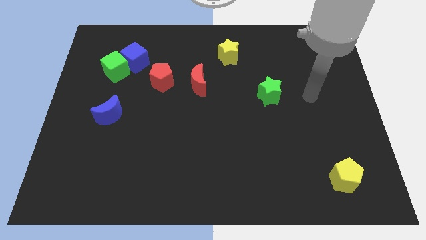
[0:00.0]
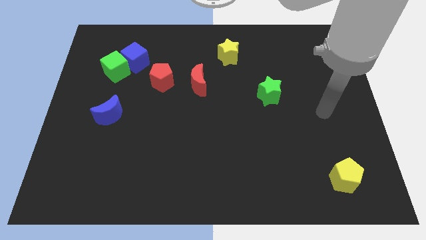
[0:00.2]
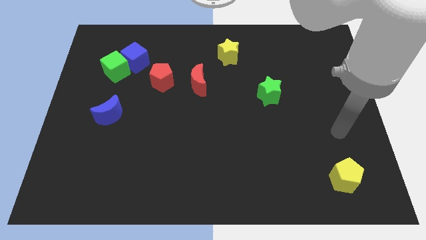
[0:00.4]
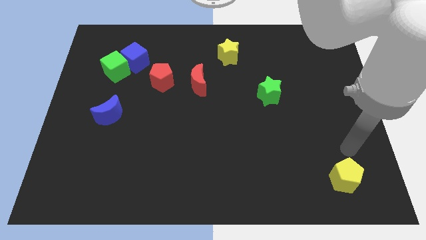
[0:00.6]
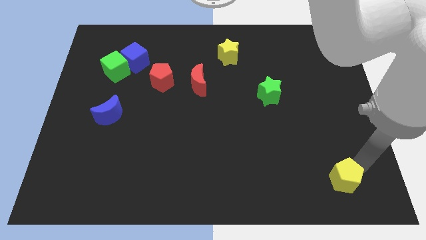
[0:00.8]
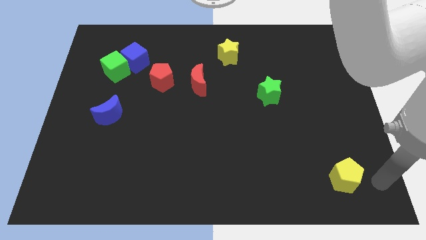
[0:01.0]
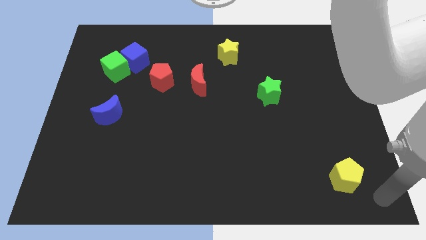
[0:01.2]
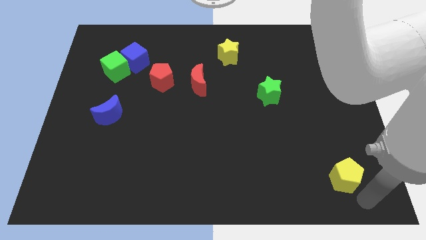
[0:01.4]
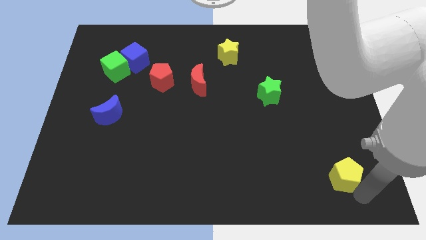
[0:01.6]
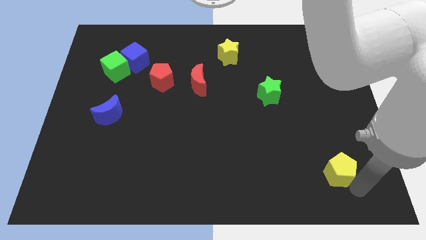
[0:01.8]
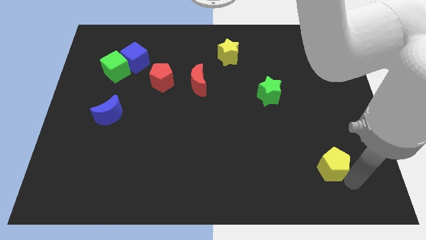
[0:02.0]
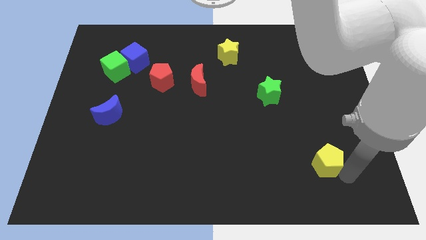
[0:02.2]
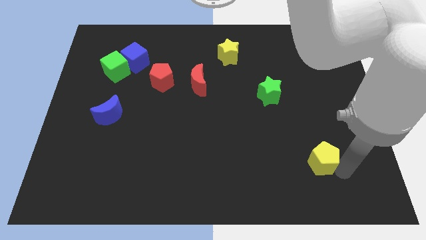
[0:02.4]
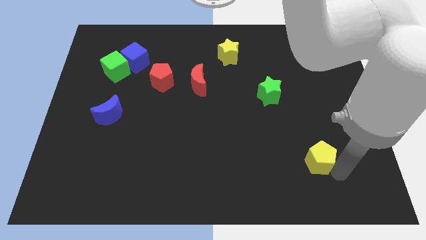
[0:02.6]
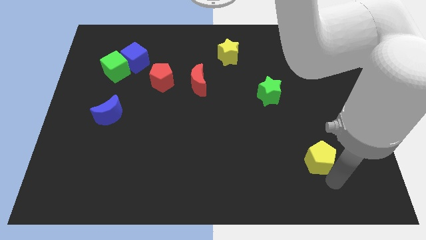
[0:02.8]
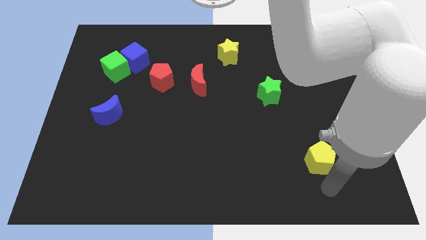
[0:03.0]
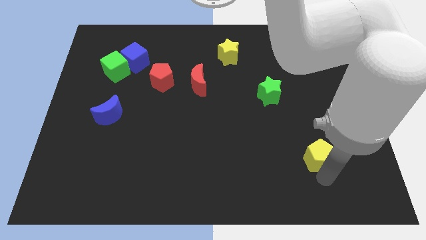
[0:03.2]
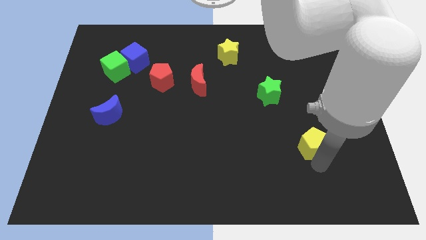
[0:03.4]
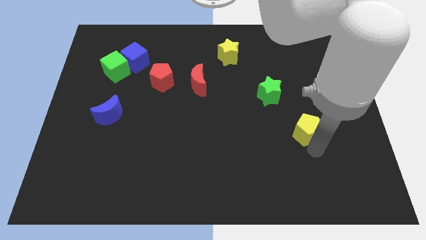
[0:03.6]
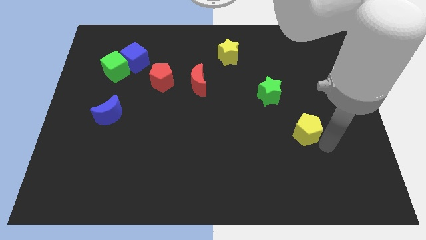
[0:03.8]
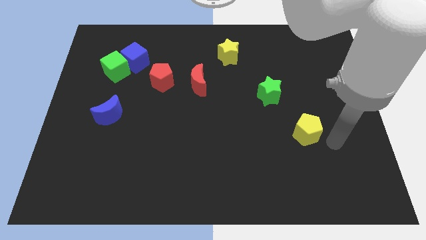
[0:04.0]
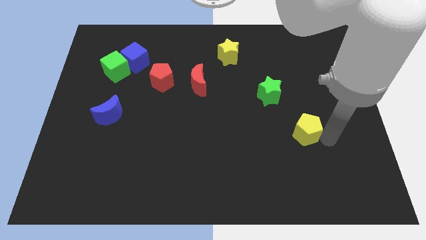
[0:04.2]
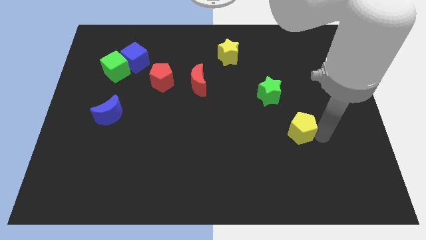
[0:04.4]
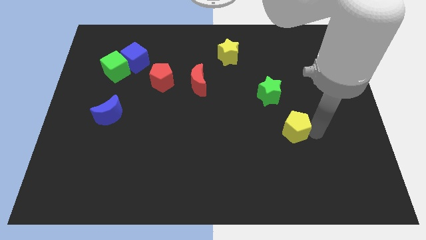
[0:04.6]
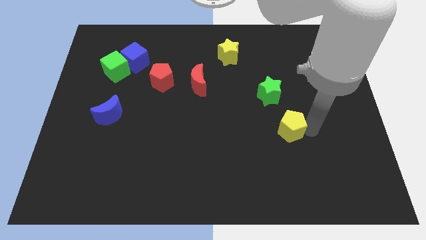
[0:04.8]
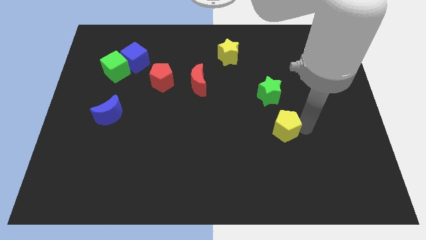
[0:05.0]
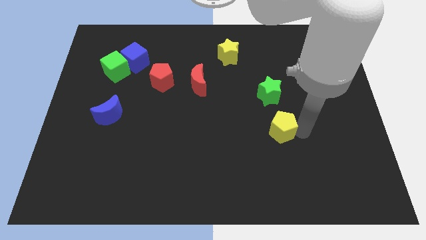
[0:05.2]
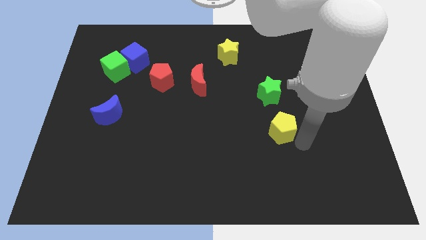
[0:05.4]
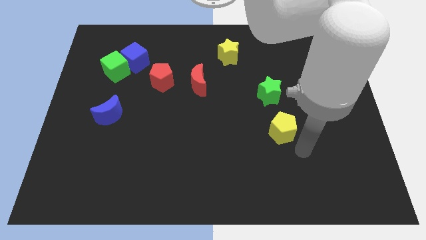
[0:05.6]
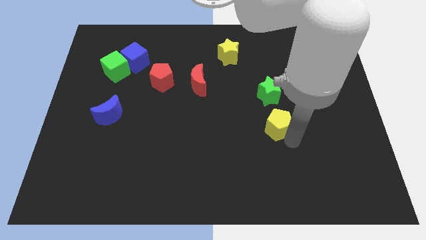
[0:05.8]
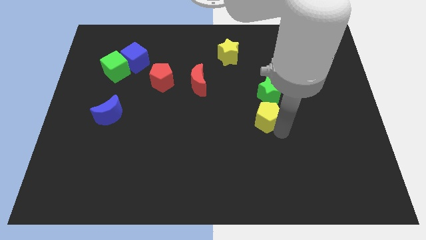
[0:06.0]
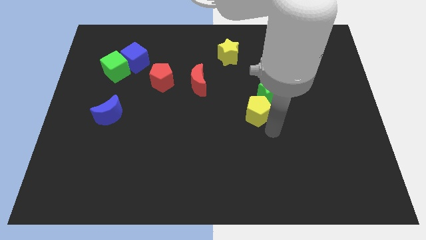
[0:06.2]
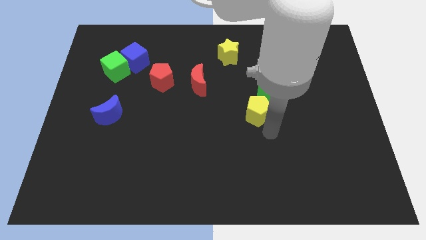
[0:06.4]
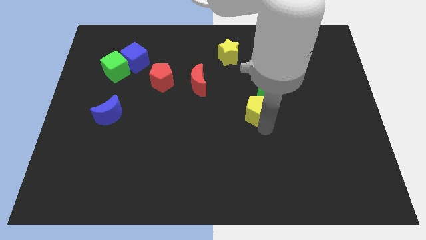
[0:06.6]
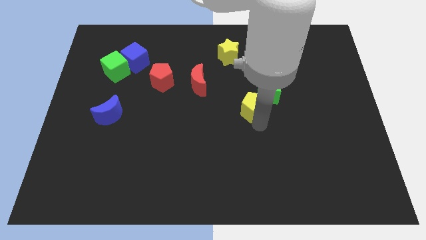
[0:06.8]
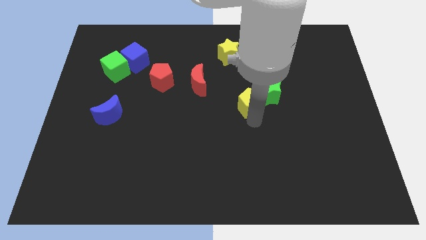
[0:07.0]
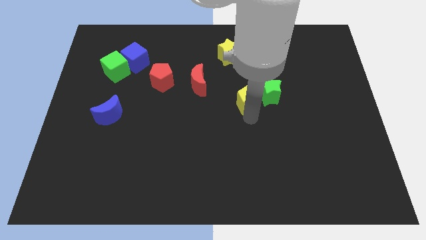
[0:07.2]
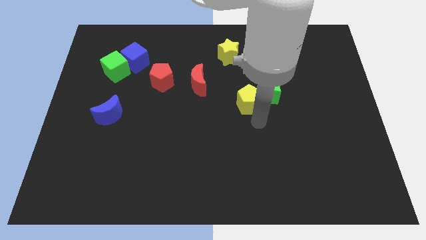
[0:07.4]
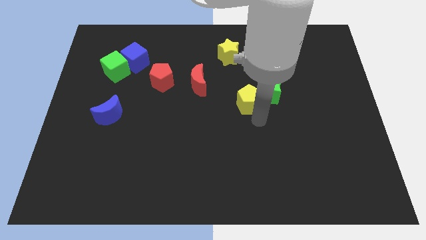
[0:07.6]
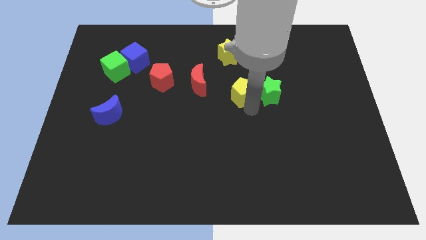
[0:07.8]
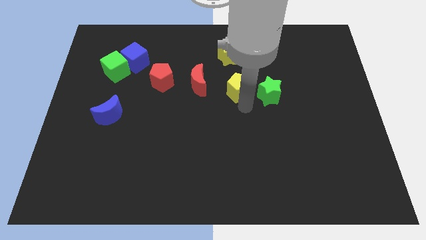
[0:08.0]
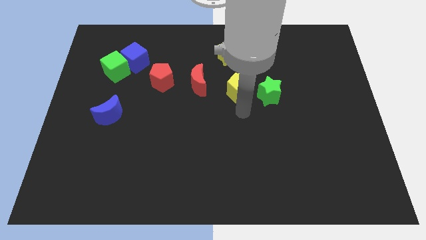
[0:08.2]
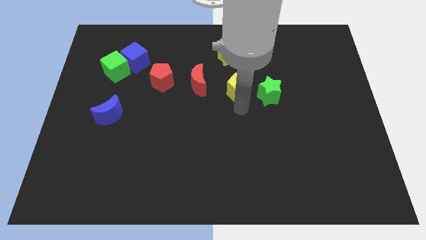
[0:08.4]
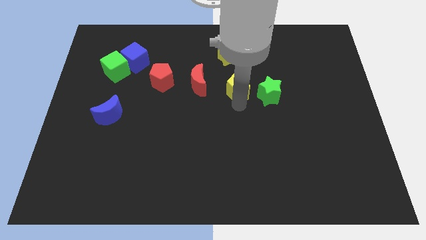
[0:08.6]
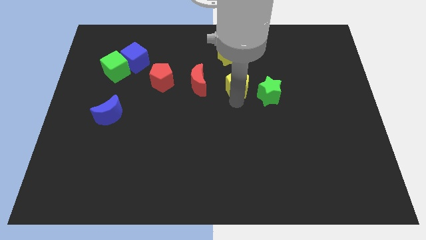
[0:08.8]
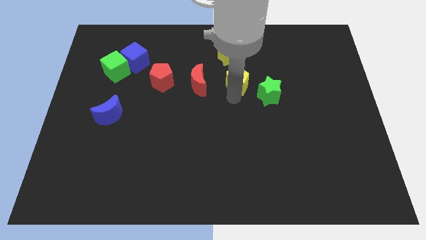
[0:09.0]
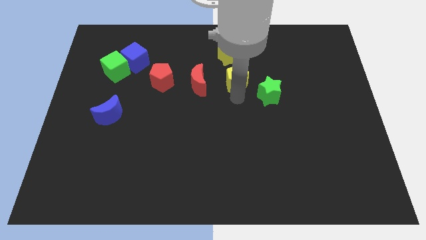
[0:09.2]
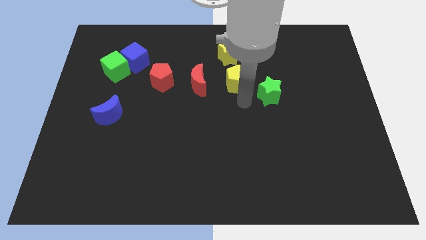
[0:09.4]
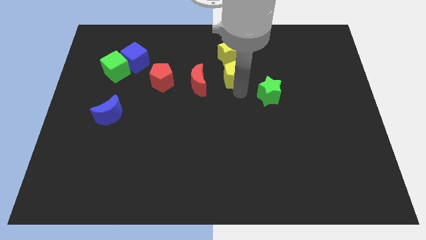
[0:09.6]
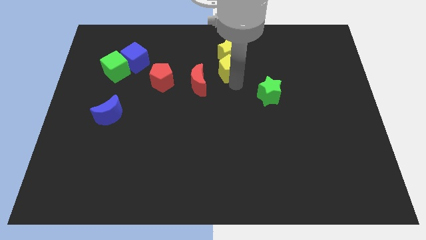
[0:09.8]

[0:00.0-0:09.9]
put the yellow pentagon close to the yellow star

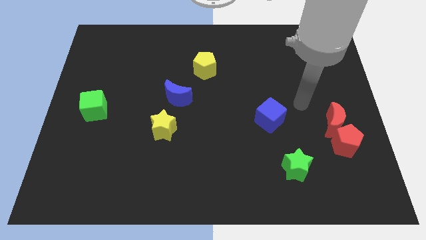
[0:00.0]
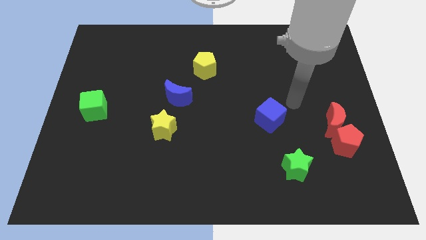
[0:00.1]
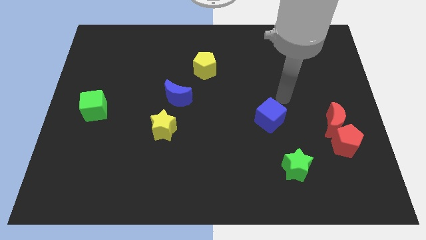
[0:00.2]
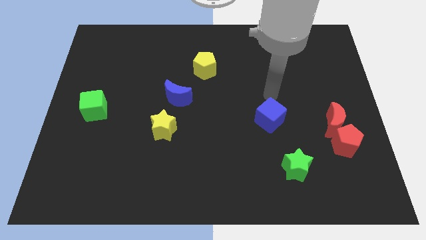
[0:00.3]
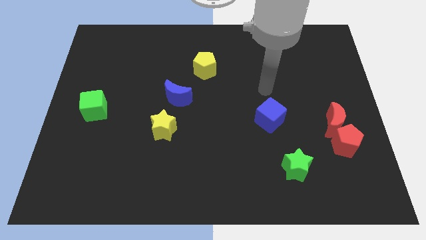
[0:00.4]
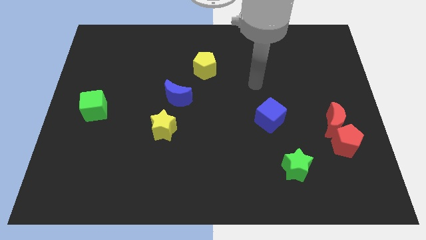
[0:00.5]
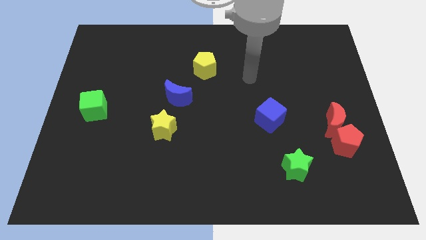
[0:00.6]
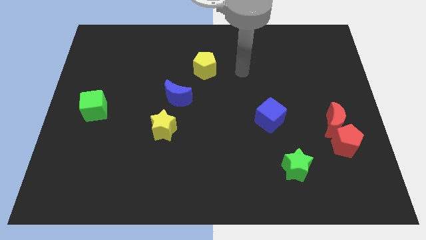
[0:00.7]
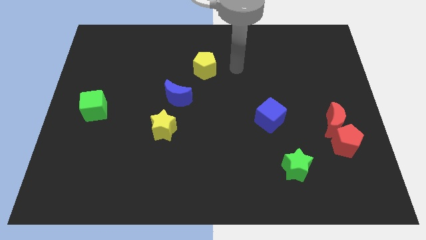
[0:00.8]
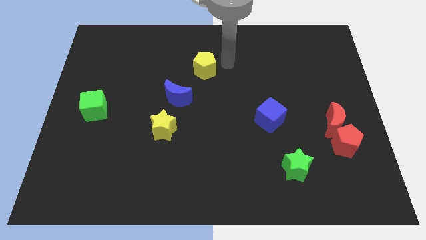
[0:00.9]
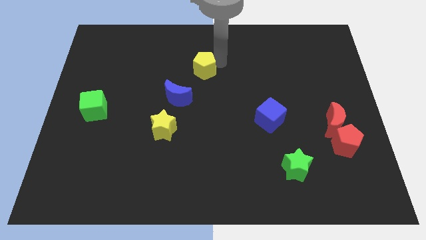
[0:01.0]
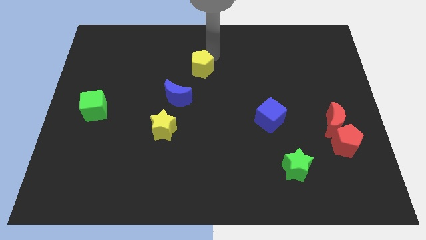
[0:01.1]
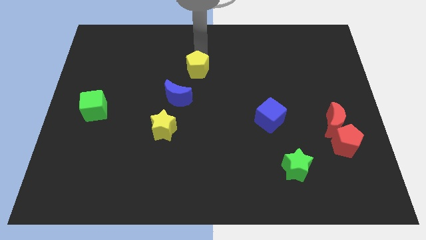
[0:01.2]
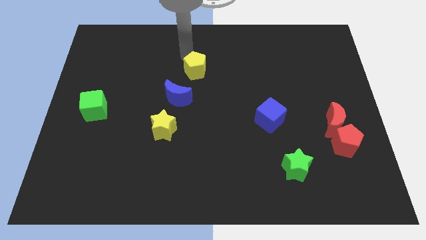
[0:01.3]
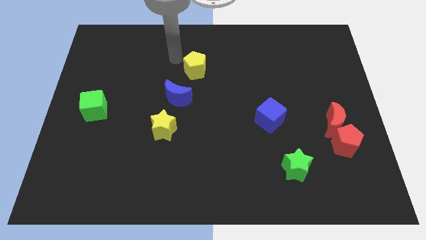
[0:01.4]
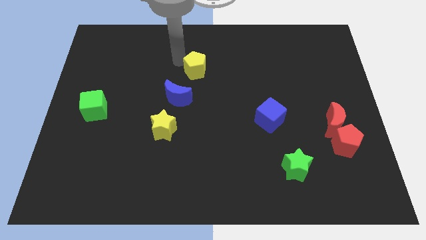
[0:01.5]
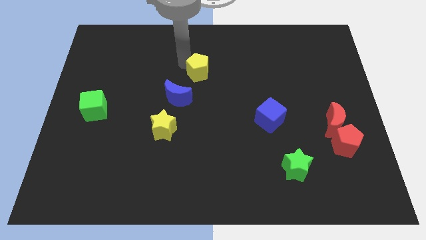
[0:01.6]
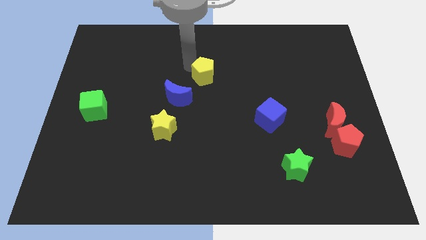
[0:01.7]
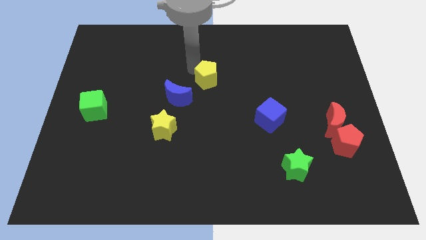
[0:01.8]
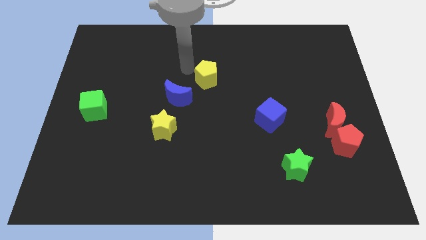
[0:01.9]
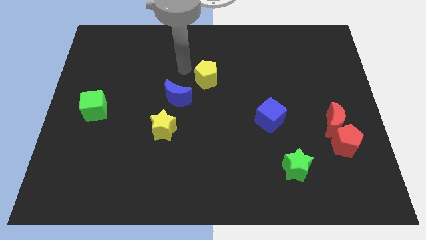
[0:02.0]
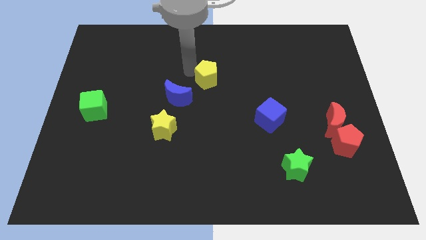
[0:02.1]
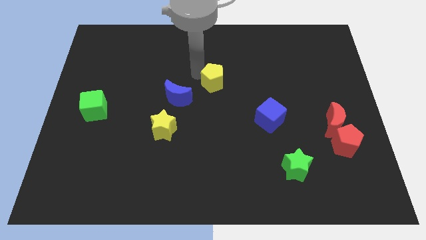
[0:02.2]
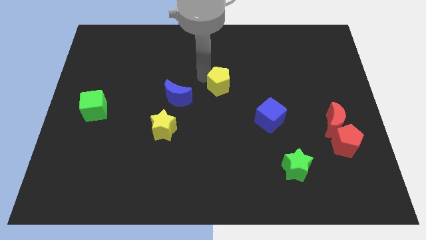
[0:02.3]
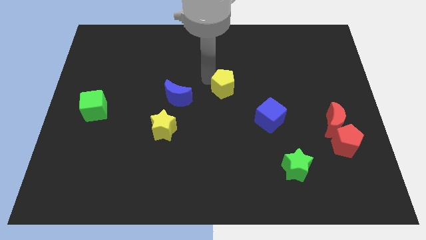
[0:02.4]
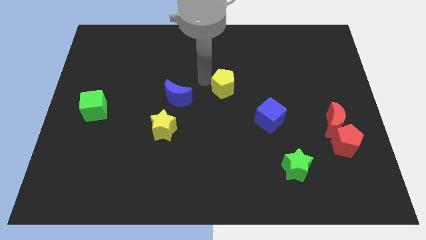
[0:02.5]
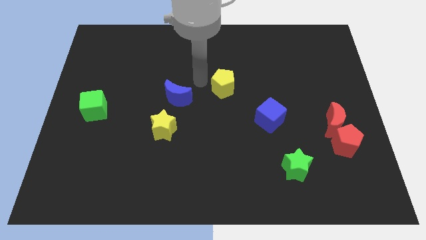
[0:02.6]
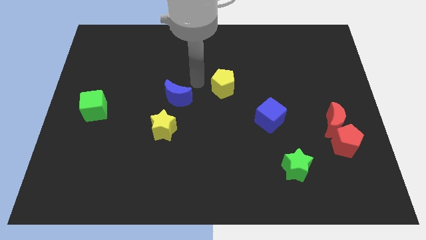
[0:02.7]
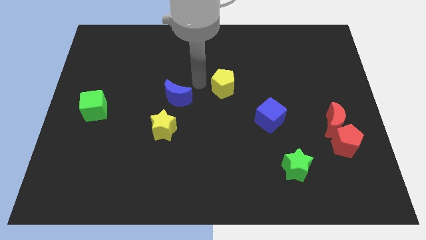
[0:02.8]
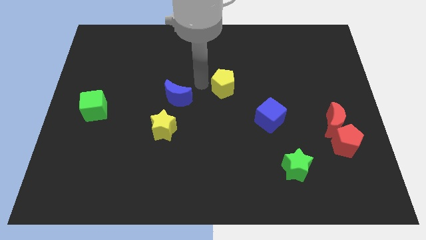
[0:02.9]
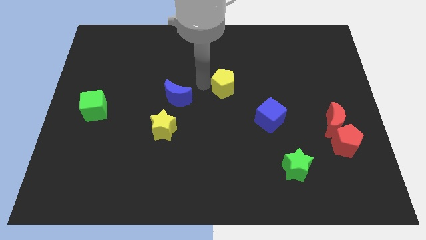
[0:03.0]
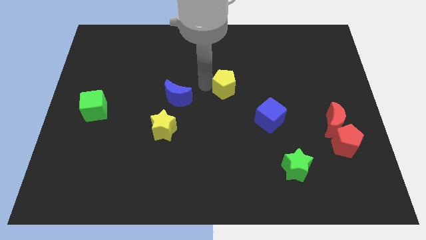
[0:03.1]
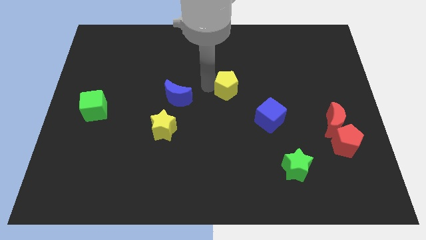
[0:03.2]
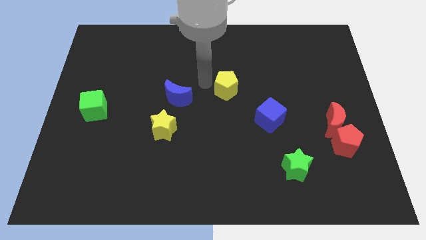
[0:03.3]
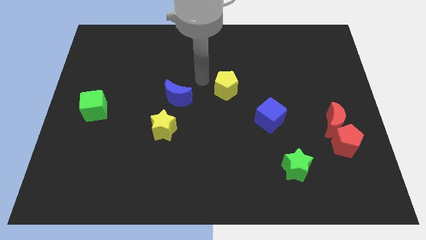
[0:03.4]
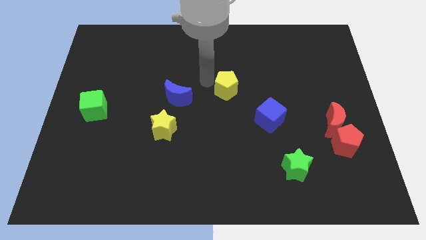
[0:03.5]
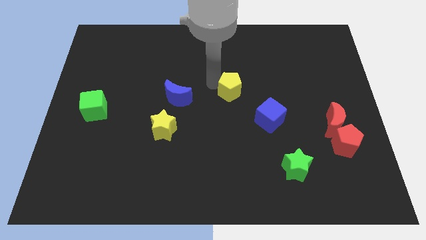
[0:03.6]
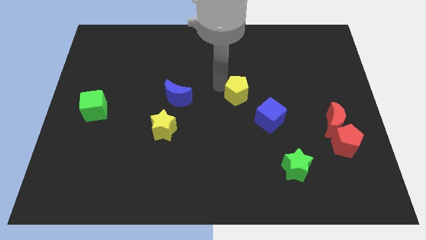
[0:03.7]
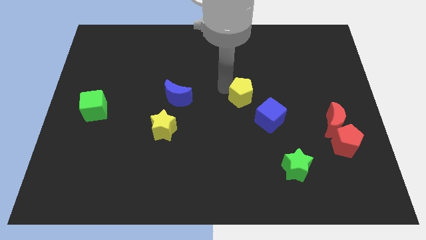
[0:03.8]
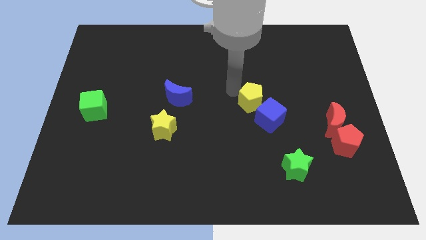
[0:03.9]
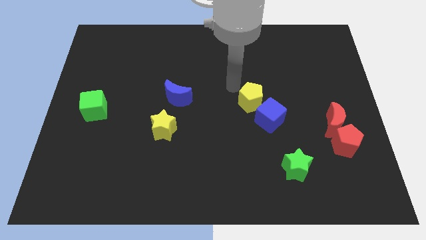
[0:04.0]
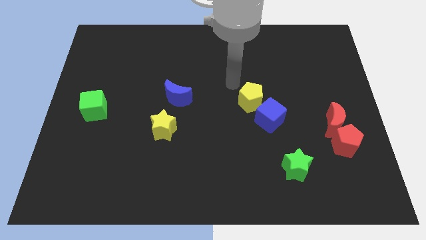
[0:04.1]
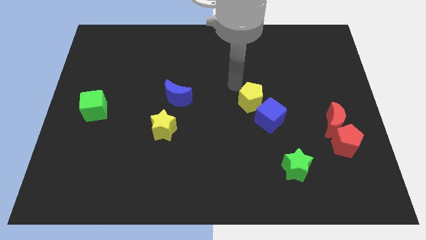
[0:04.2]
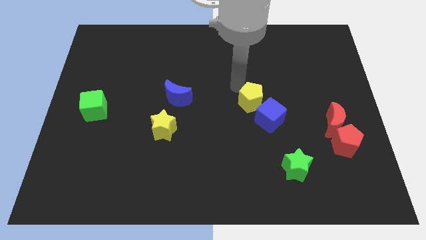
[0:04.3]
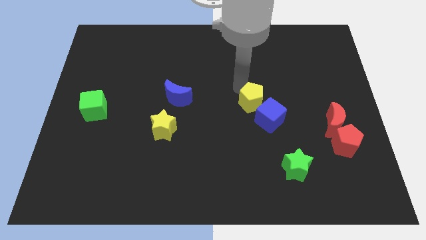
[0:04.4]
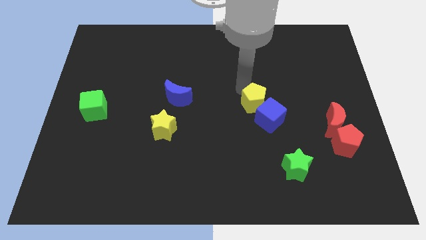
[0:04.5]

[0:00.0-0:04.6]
put the yellow pentagon towards the blue cube
